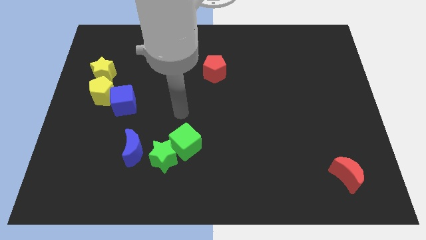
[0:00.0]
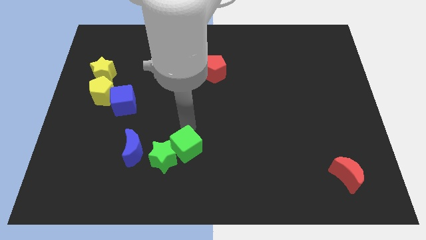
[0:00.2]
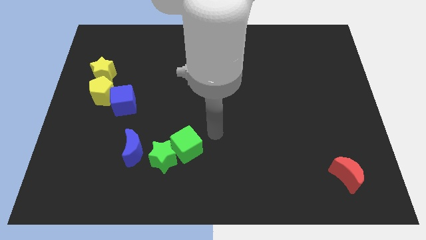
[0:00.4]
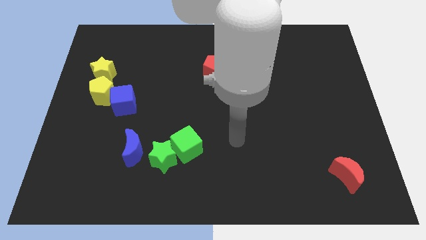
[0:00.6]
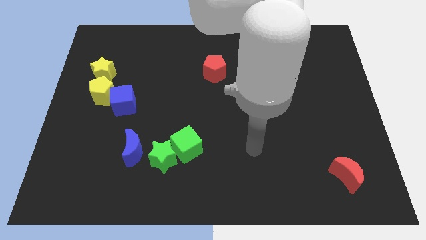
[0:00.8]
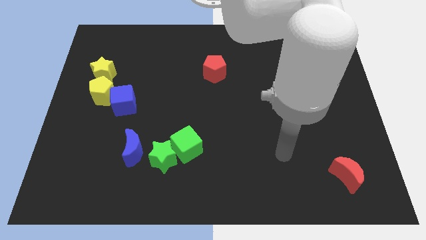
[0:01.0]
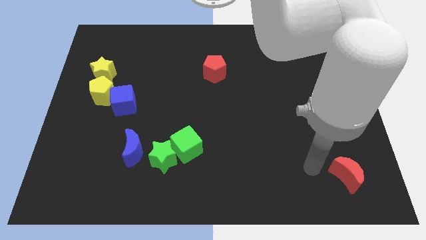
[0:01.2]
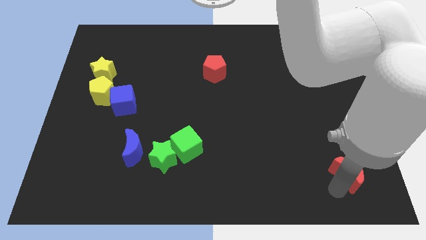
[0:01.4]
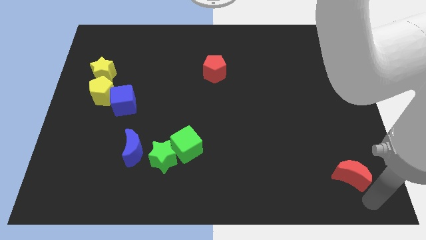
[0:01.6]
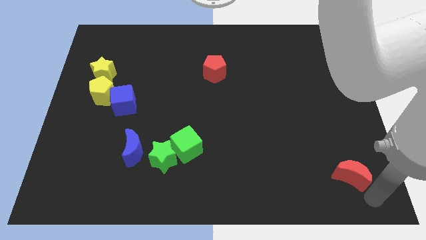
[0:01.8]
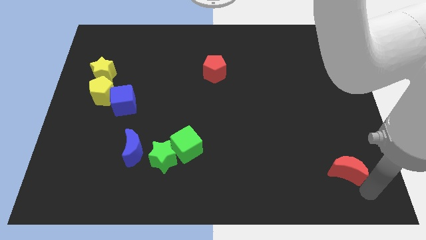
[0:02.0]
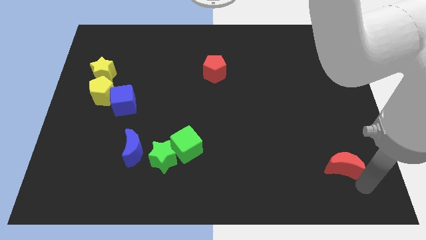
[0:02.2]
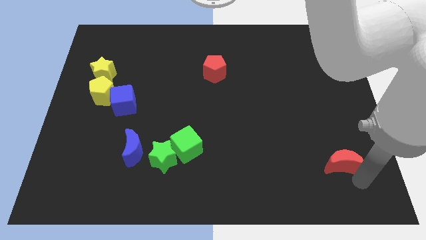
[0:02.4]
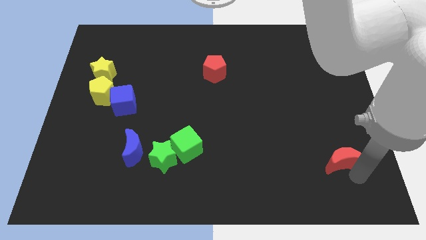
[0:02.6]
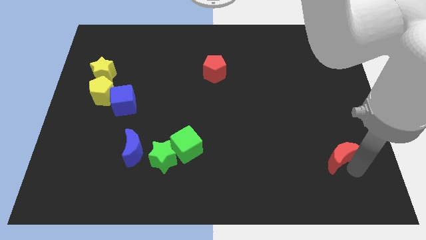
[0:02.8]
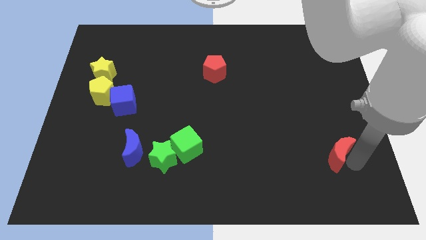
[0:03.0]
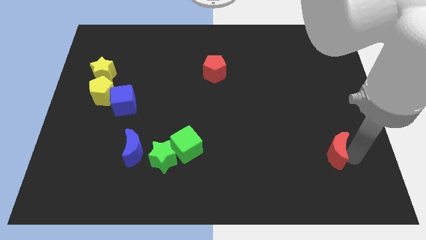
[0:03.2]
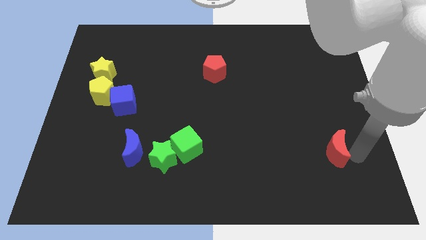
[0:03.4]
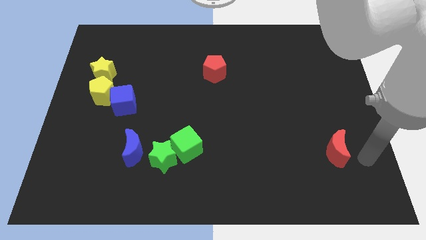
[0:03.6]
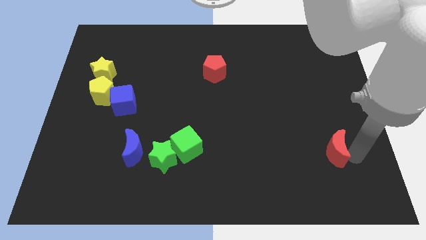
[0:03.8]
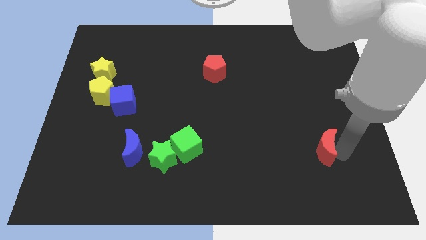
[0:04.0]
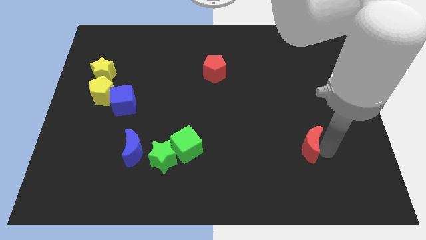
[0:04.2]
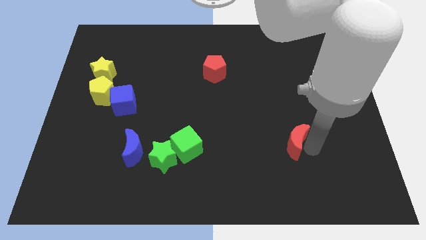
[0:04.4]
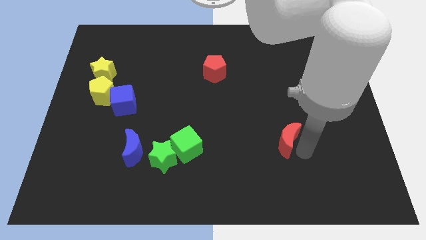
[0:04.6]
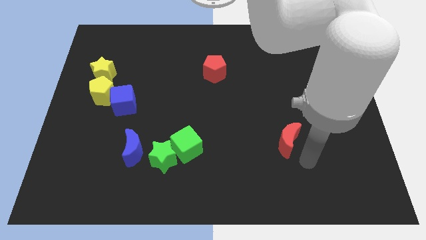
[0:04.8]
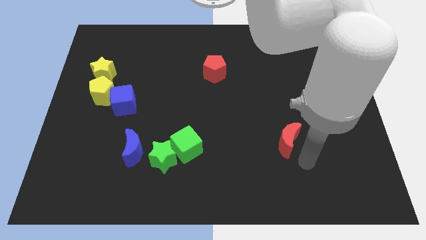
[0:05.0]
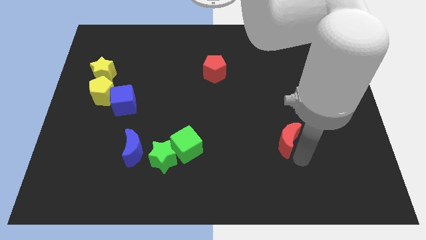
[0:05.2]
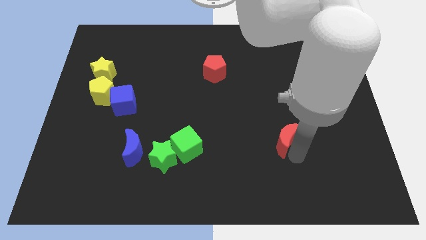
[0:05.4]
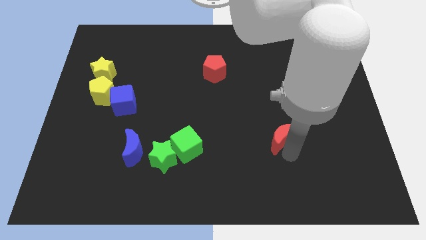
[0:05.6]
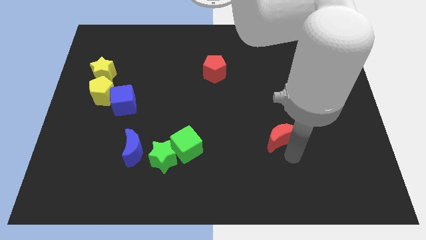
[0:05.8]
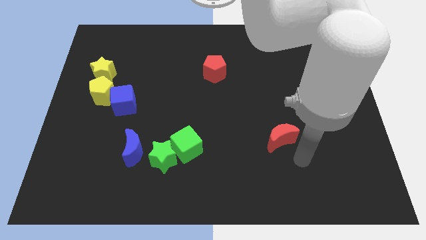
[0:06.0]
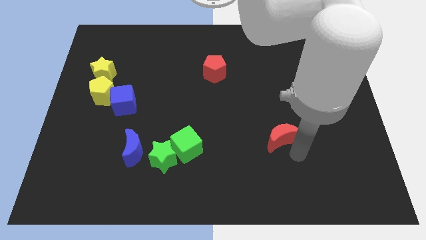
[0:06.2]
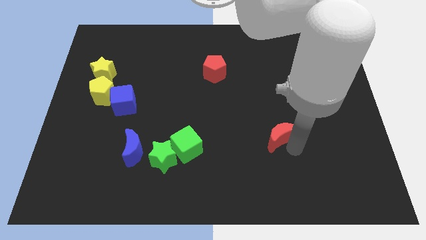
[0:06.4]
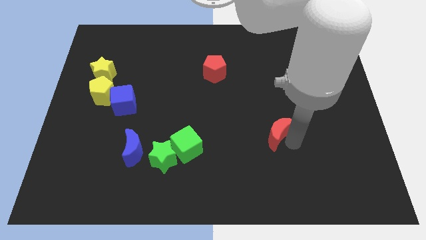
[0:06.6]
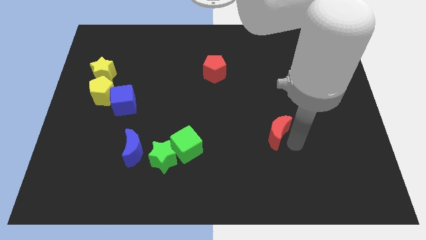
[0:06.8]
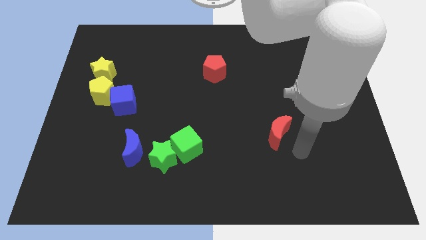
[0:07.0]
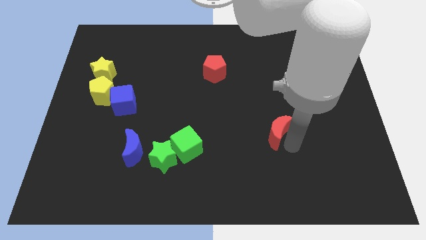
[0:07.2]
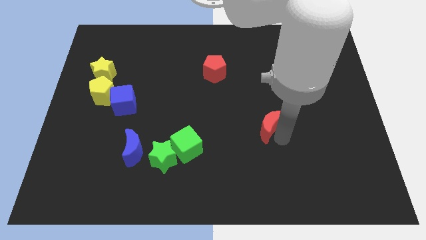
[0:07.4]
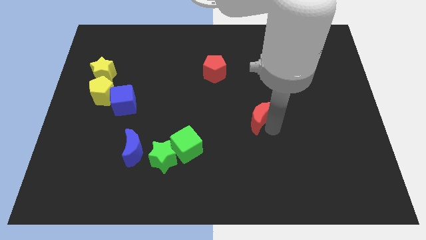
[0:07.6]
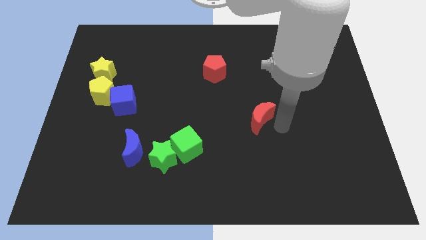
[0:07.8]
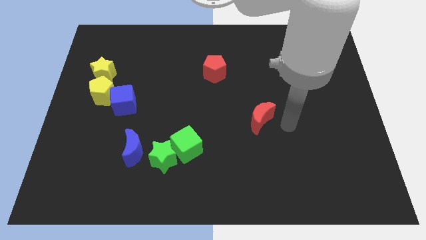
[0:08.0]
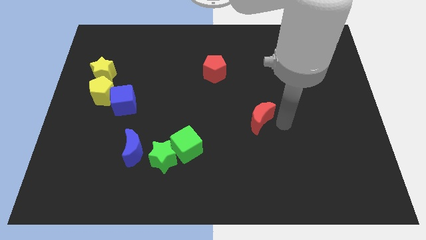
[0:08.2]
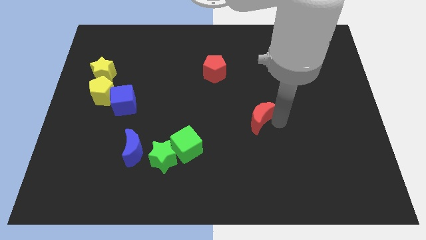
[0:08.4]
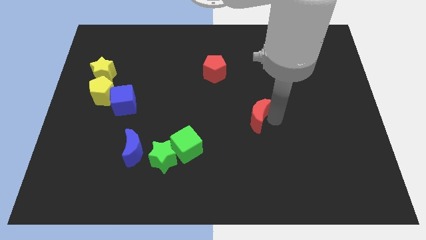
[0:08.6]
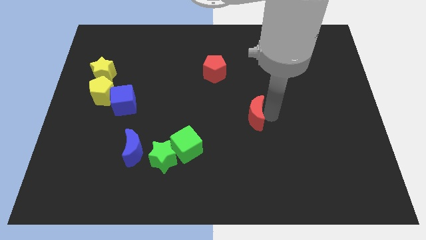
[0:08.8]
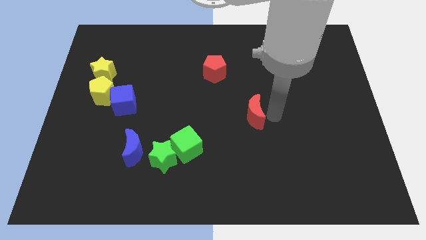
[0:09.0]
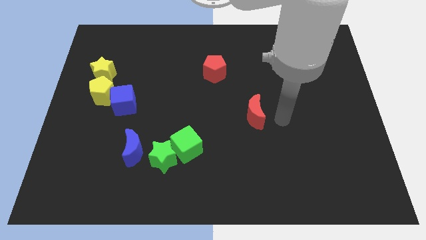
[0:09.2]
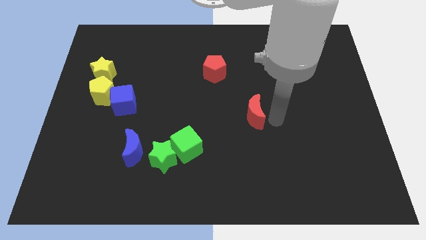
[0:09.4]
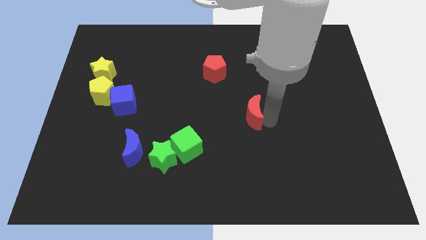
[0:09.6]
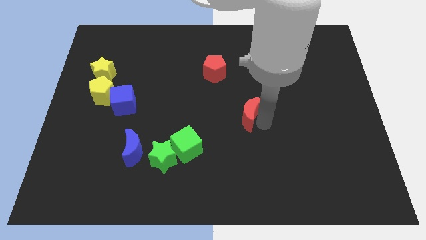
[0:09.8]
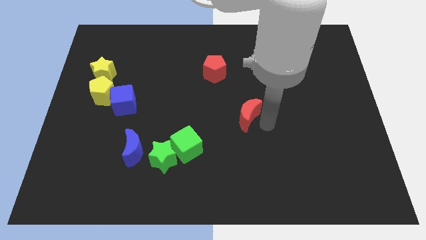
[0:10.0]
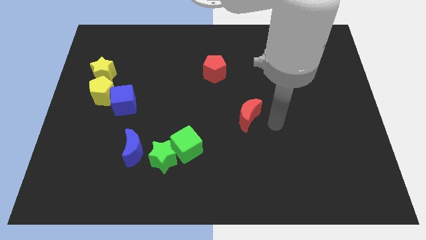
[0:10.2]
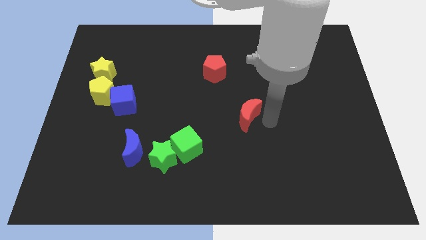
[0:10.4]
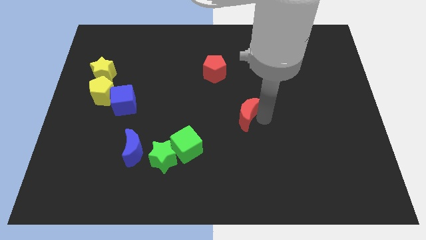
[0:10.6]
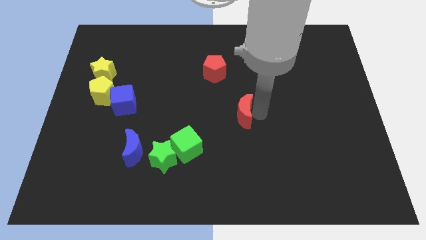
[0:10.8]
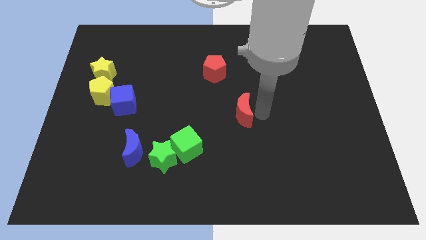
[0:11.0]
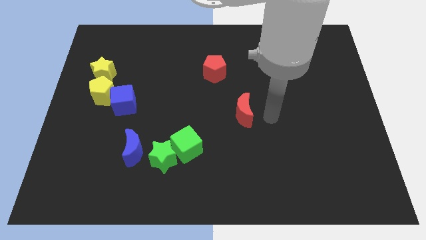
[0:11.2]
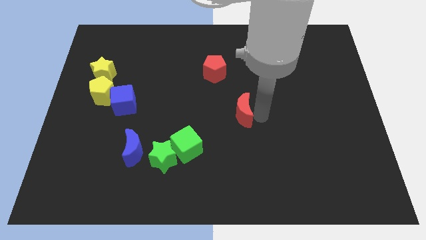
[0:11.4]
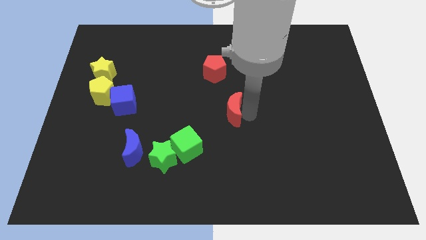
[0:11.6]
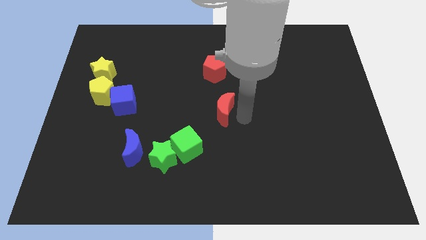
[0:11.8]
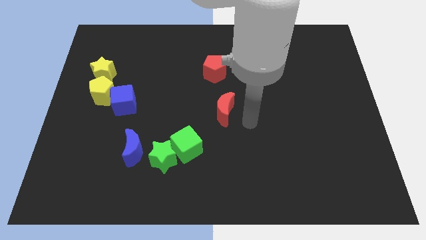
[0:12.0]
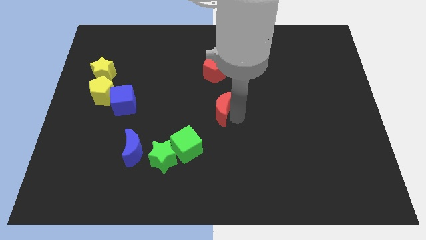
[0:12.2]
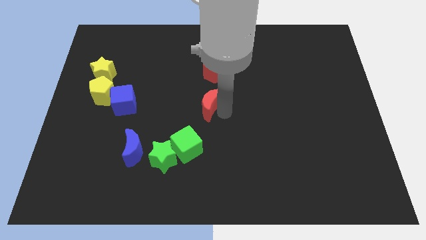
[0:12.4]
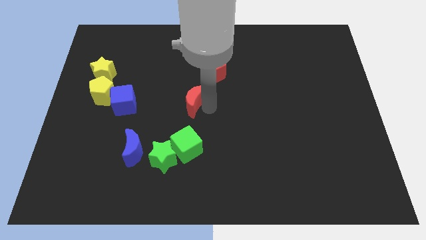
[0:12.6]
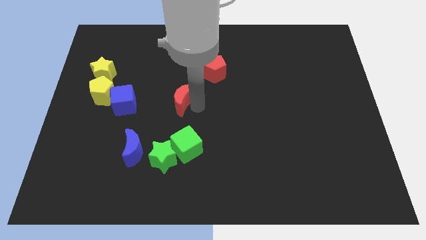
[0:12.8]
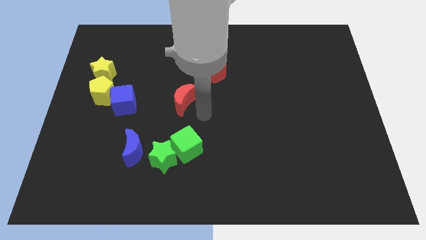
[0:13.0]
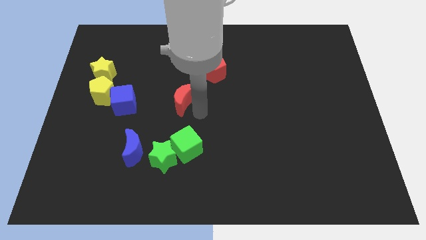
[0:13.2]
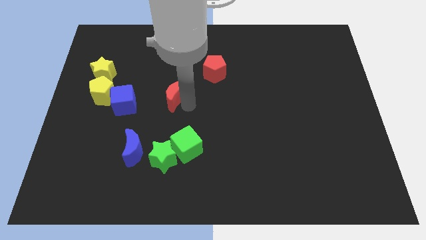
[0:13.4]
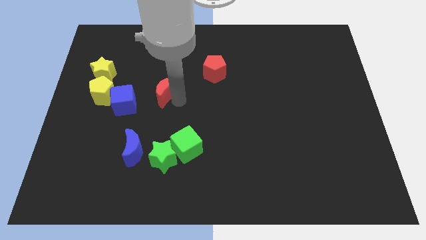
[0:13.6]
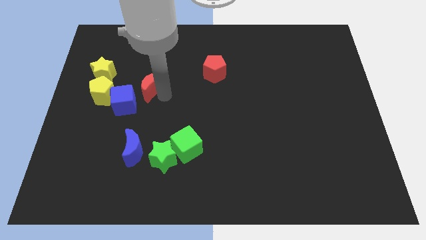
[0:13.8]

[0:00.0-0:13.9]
move the red moon right of the yellow star
